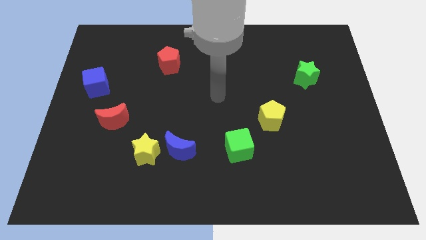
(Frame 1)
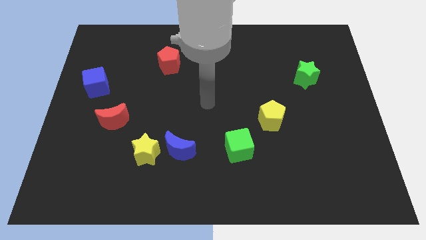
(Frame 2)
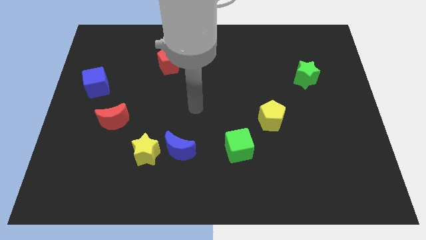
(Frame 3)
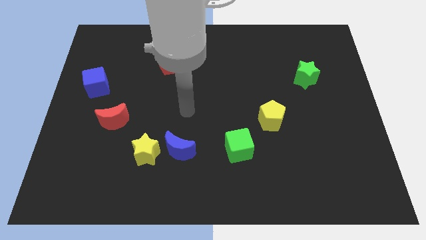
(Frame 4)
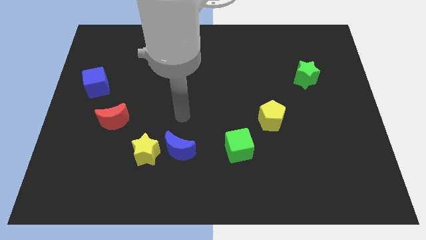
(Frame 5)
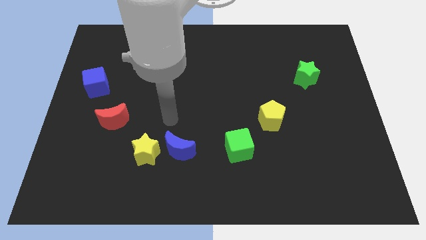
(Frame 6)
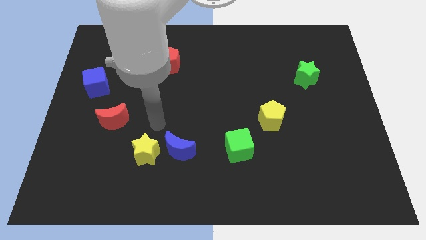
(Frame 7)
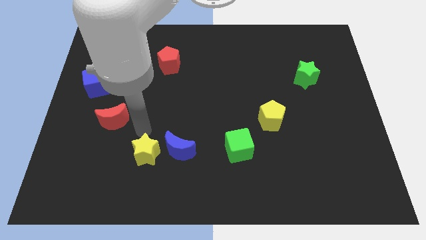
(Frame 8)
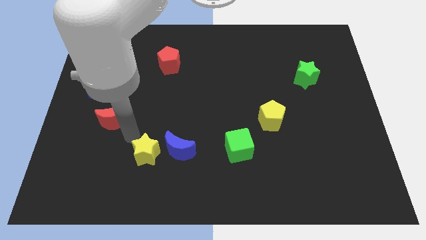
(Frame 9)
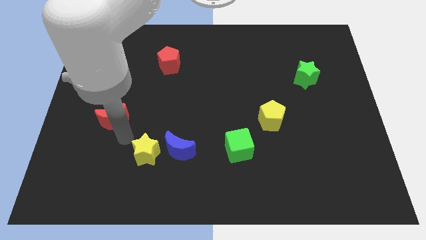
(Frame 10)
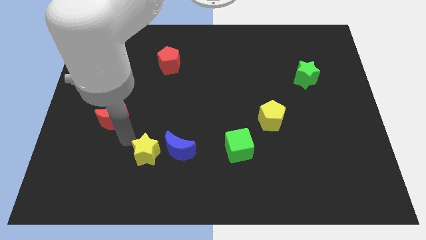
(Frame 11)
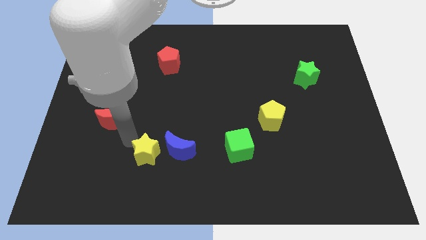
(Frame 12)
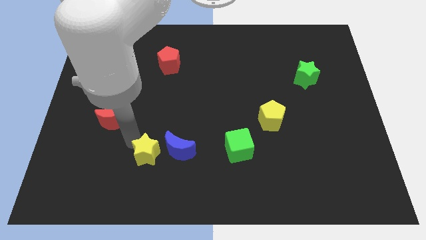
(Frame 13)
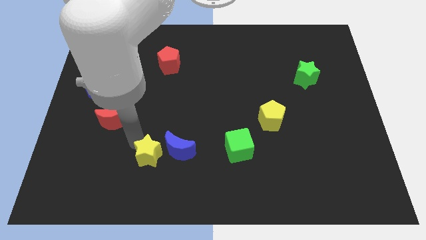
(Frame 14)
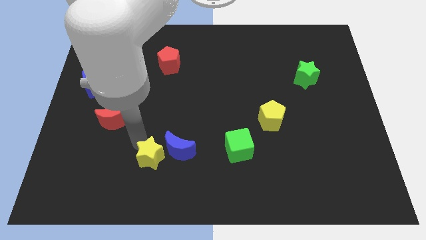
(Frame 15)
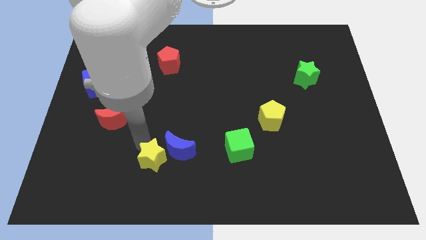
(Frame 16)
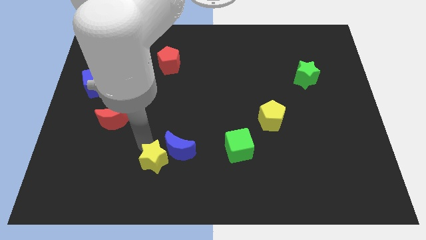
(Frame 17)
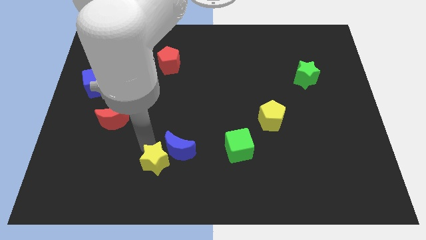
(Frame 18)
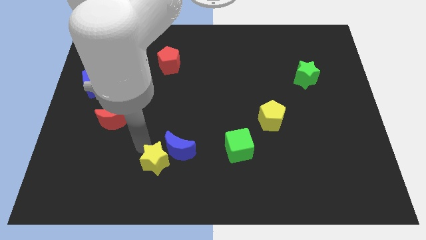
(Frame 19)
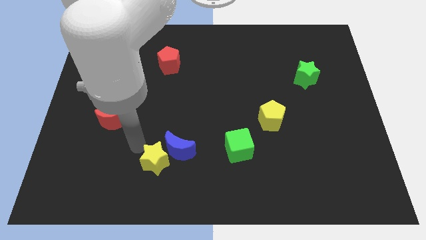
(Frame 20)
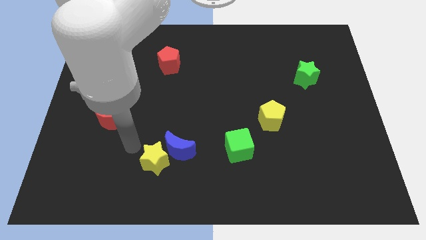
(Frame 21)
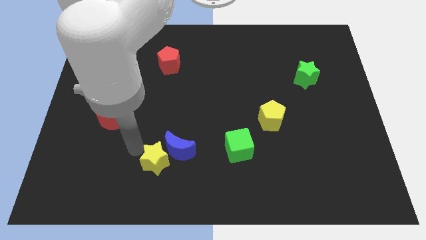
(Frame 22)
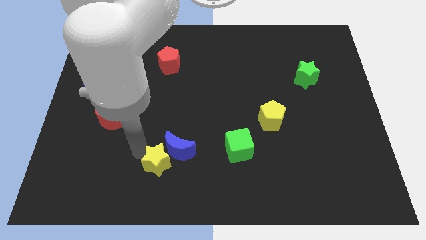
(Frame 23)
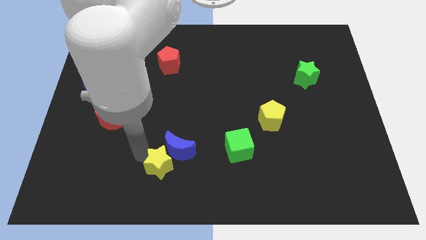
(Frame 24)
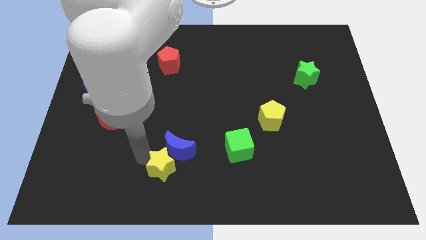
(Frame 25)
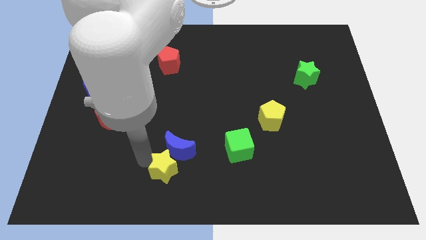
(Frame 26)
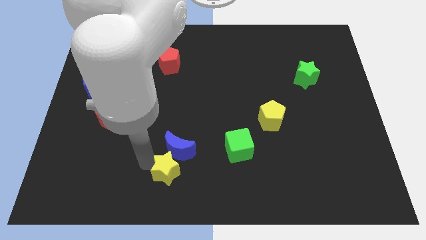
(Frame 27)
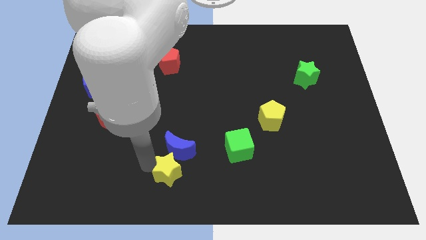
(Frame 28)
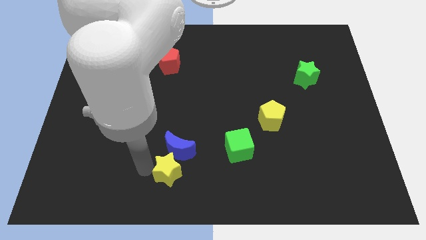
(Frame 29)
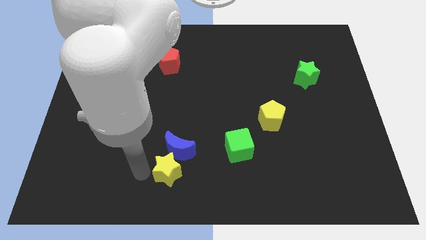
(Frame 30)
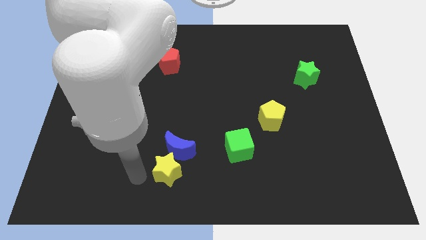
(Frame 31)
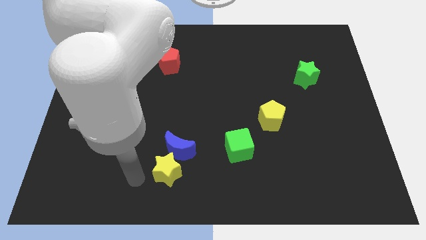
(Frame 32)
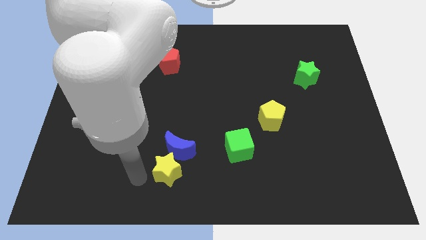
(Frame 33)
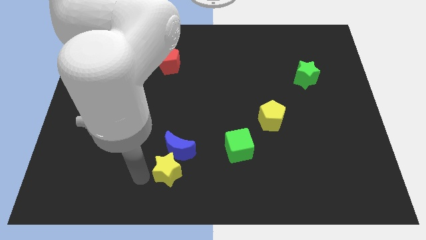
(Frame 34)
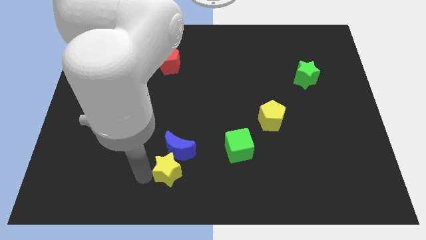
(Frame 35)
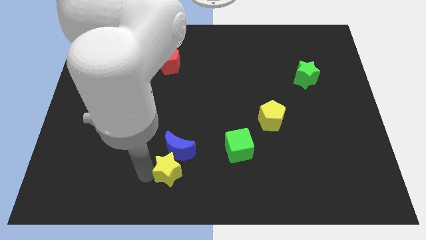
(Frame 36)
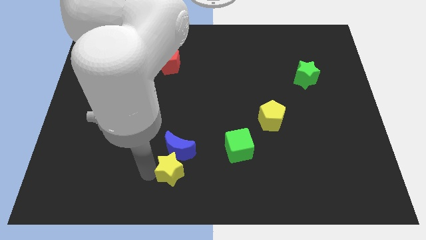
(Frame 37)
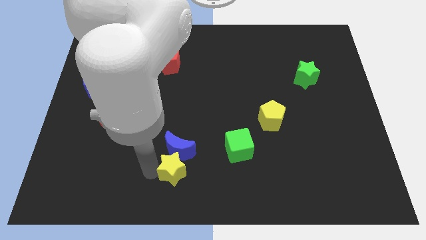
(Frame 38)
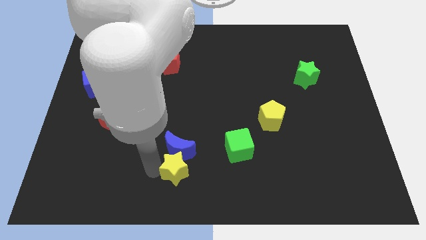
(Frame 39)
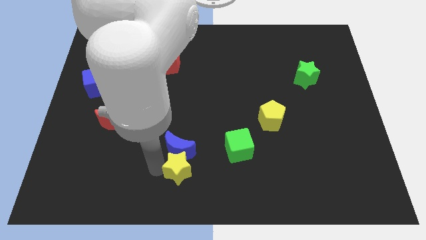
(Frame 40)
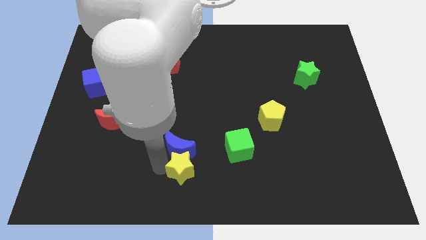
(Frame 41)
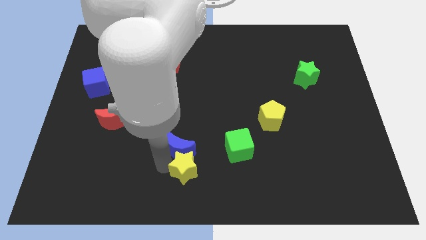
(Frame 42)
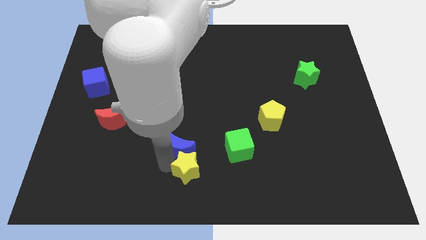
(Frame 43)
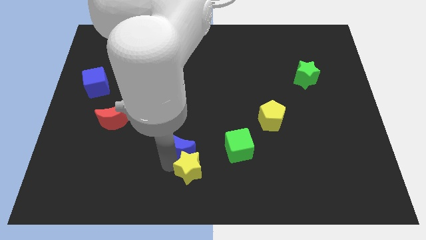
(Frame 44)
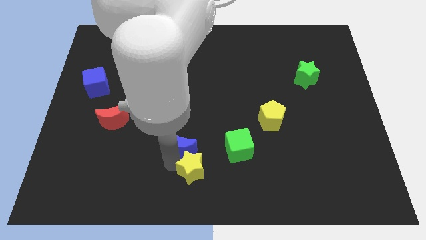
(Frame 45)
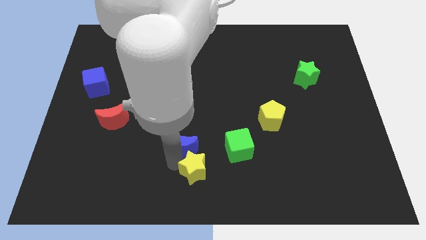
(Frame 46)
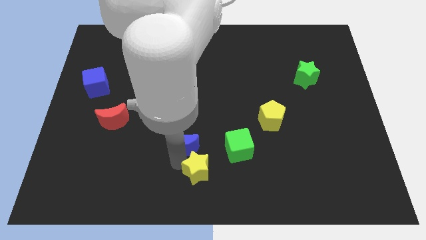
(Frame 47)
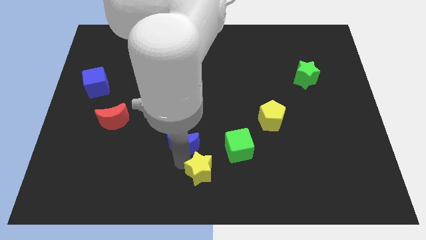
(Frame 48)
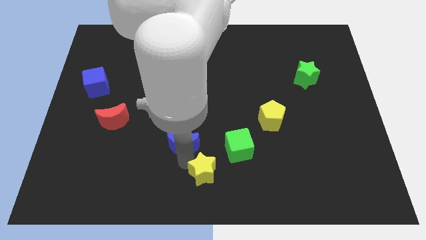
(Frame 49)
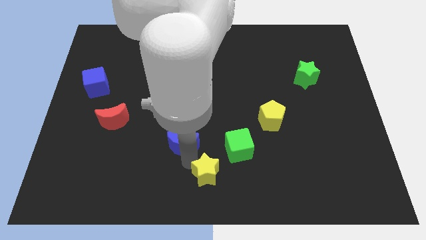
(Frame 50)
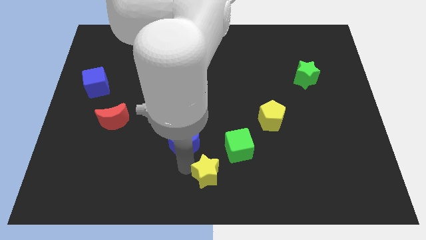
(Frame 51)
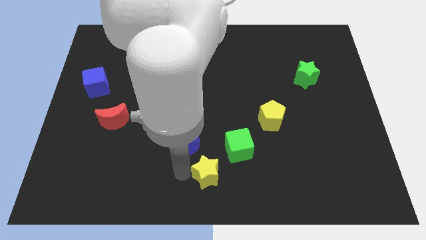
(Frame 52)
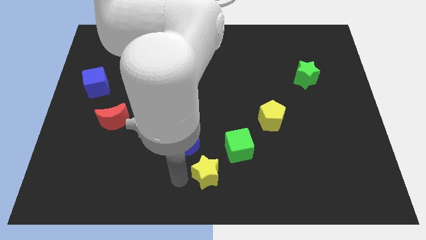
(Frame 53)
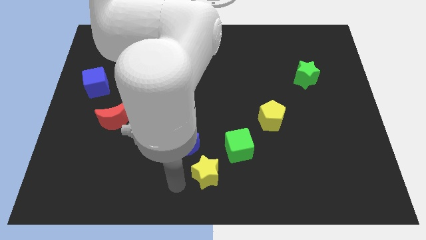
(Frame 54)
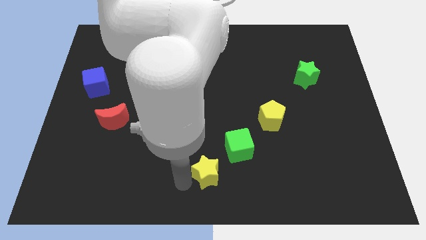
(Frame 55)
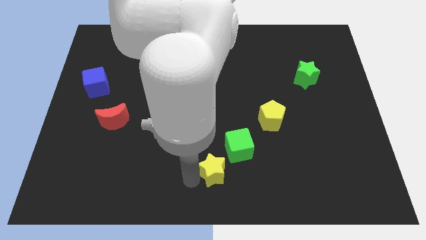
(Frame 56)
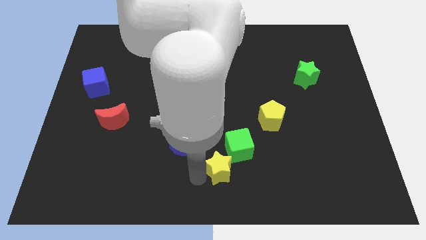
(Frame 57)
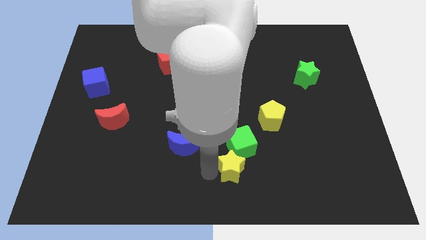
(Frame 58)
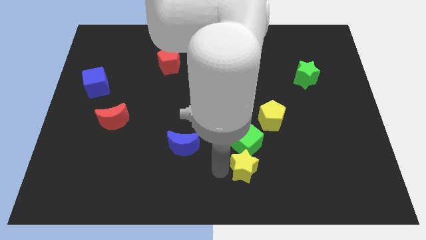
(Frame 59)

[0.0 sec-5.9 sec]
push the yellow star right

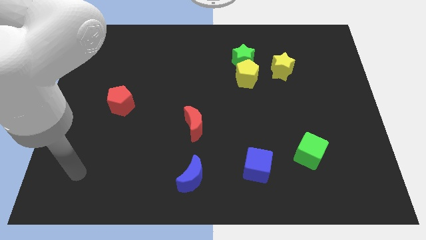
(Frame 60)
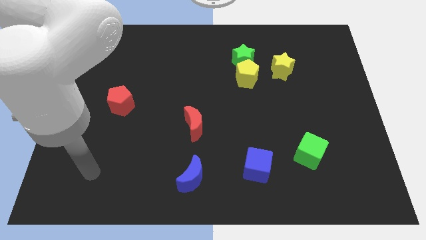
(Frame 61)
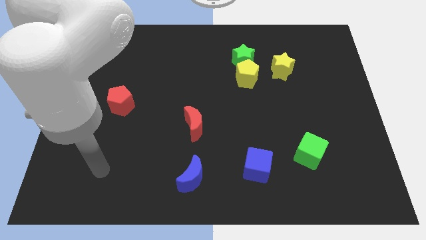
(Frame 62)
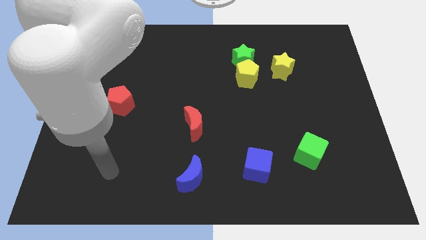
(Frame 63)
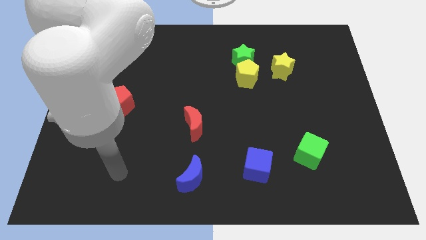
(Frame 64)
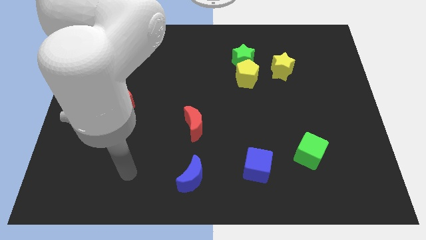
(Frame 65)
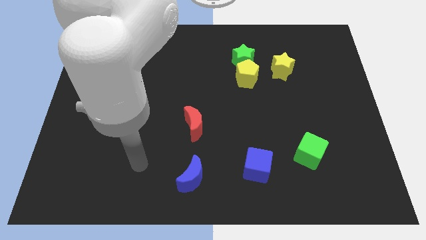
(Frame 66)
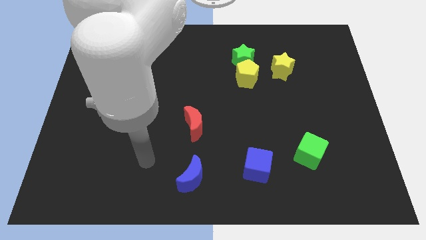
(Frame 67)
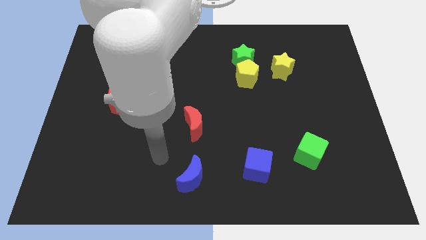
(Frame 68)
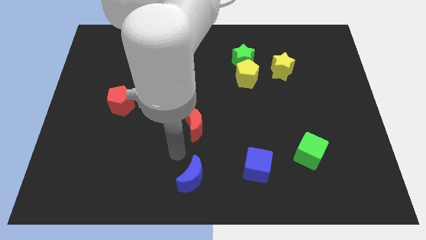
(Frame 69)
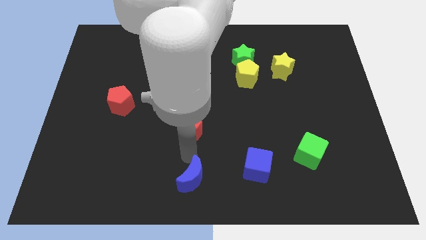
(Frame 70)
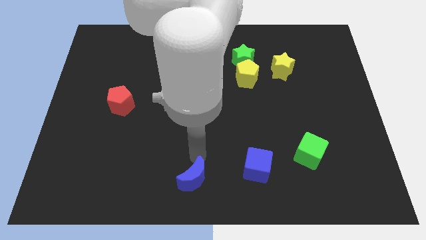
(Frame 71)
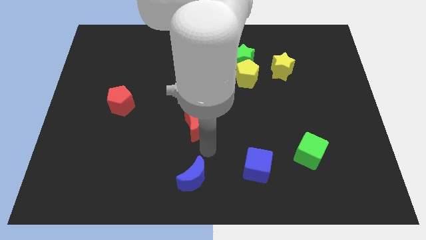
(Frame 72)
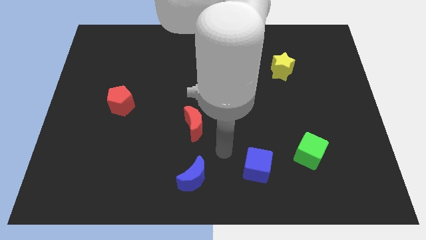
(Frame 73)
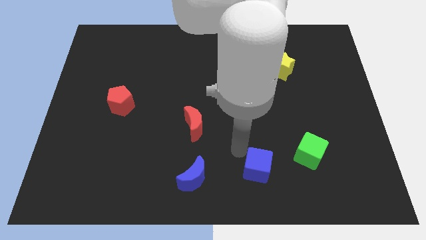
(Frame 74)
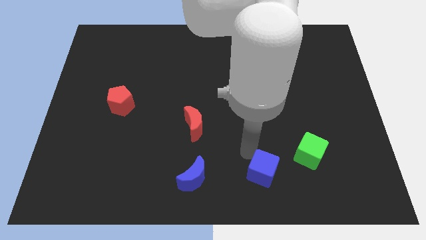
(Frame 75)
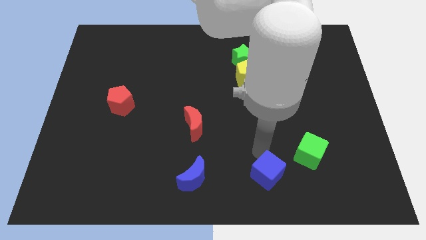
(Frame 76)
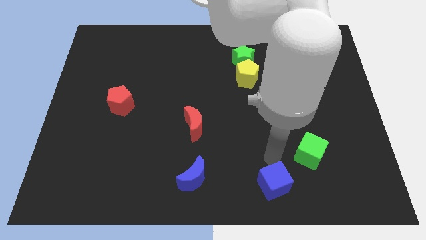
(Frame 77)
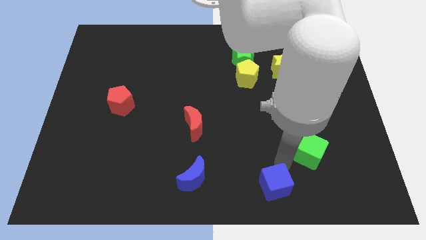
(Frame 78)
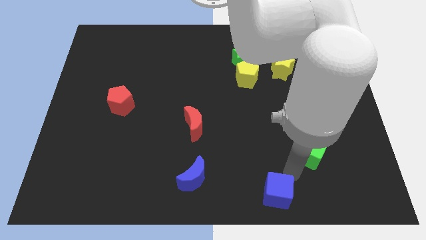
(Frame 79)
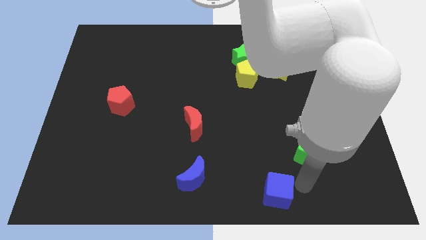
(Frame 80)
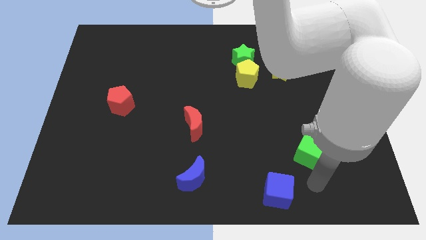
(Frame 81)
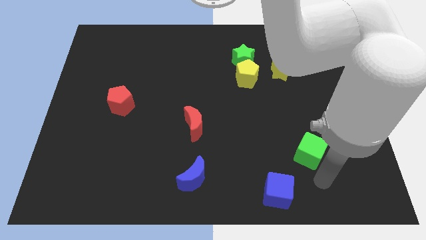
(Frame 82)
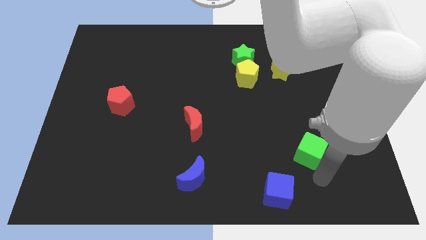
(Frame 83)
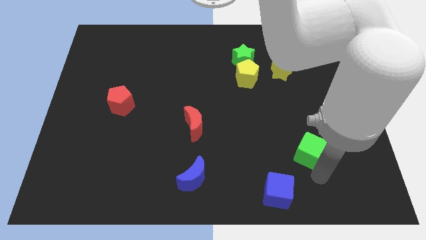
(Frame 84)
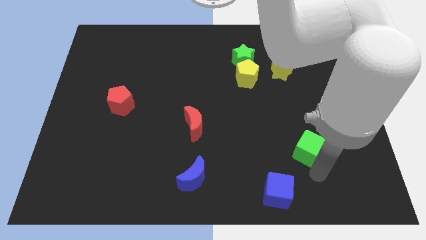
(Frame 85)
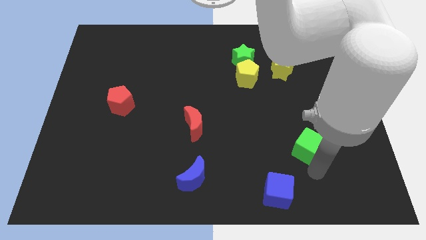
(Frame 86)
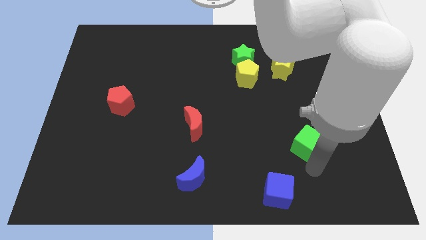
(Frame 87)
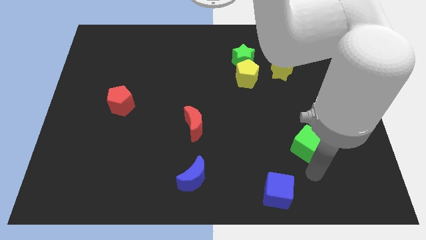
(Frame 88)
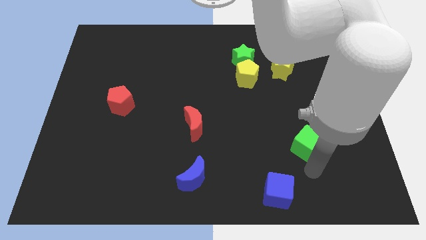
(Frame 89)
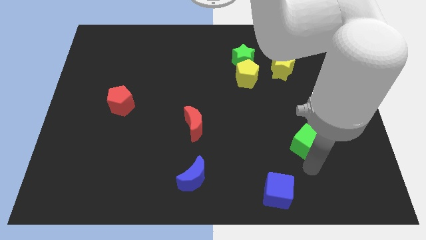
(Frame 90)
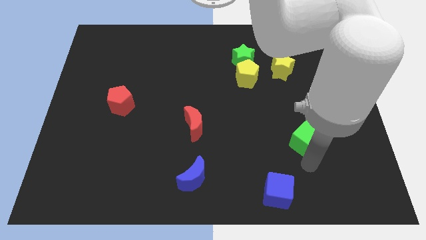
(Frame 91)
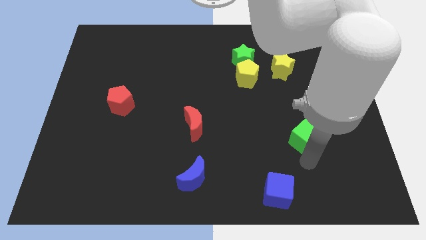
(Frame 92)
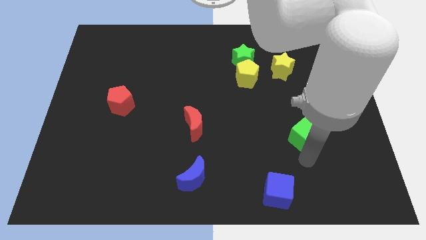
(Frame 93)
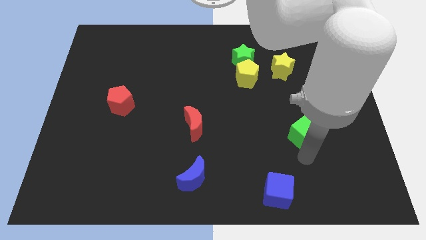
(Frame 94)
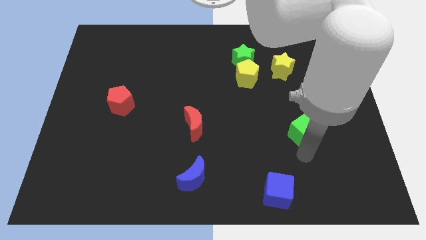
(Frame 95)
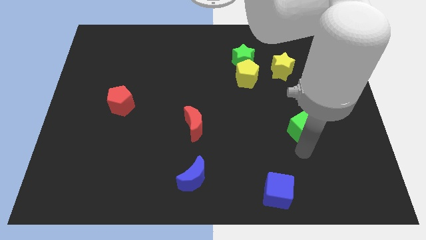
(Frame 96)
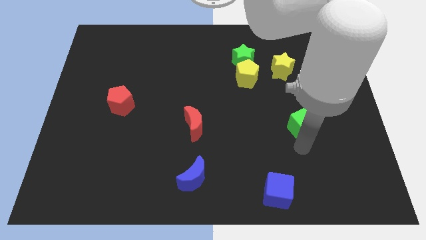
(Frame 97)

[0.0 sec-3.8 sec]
push the green cube a little bit upwards
